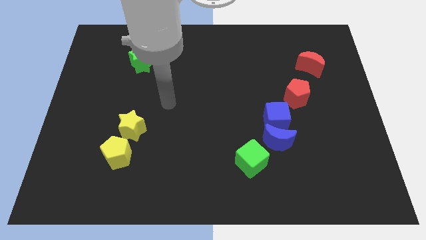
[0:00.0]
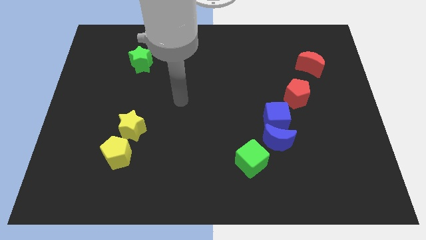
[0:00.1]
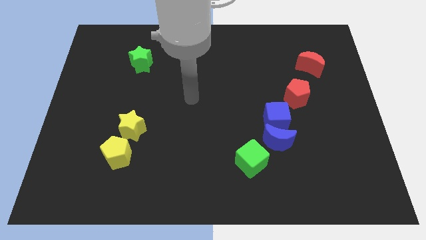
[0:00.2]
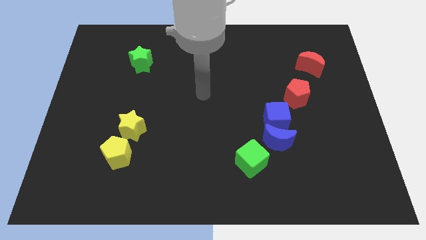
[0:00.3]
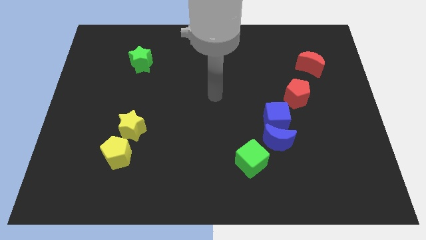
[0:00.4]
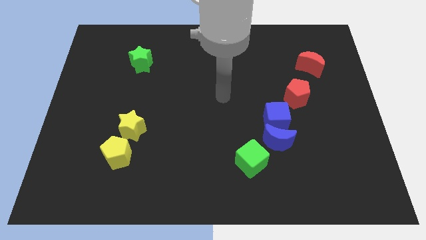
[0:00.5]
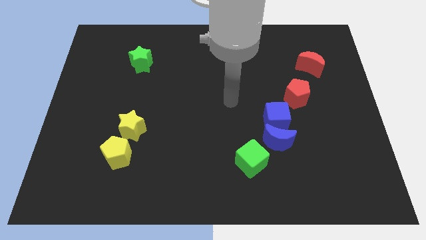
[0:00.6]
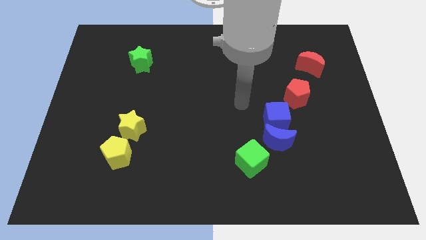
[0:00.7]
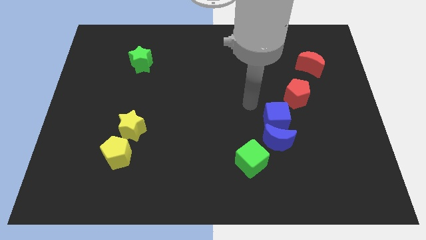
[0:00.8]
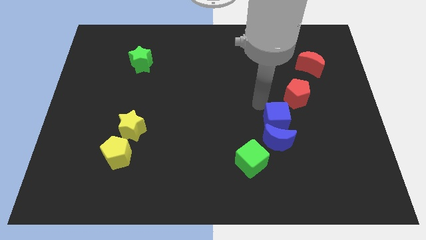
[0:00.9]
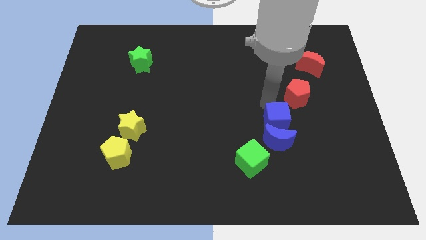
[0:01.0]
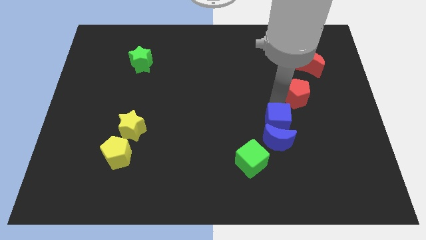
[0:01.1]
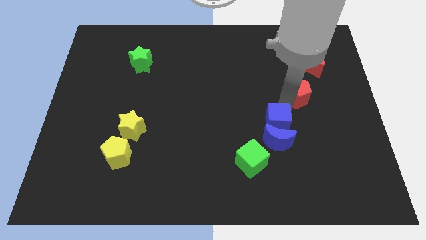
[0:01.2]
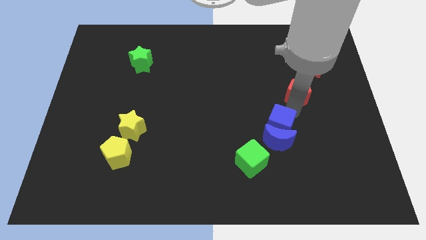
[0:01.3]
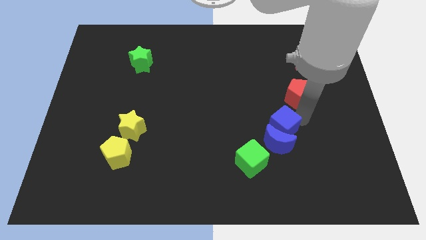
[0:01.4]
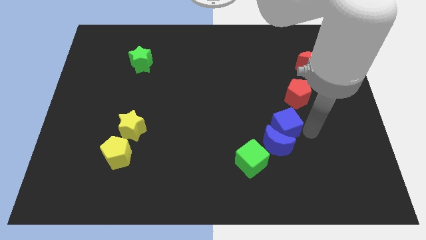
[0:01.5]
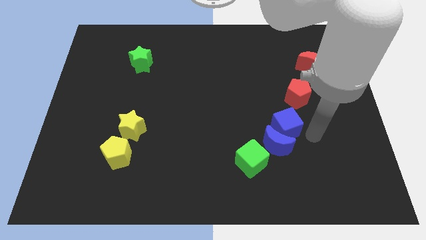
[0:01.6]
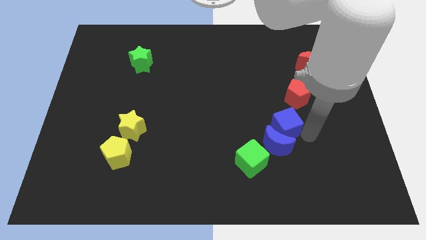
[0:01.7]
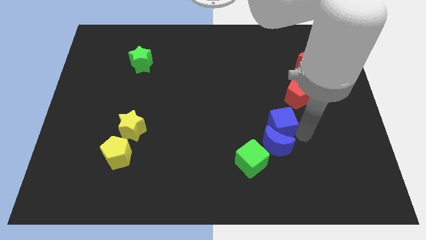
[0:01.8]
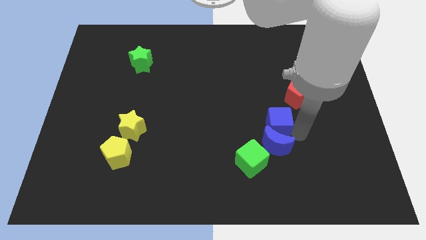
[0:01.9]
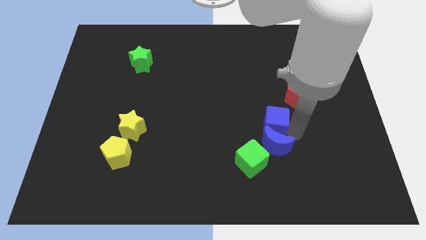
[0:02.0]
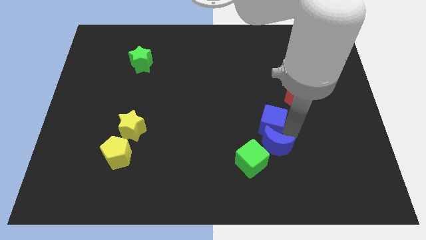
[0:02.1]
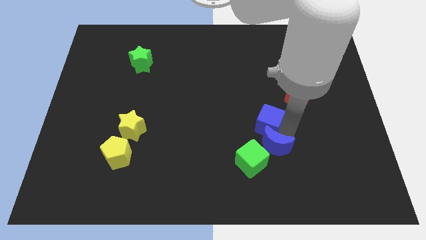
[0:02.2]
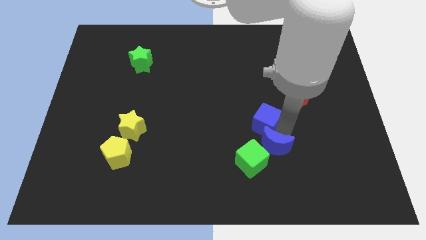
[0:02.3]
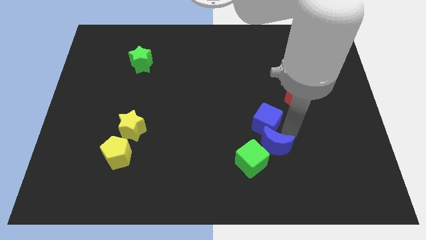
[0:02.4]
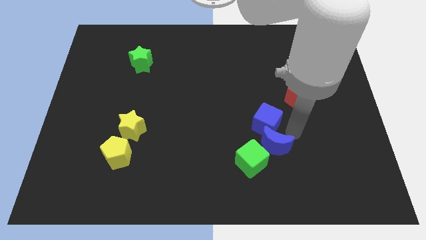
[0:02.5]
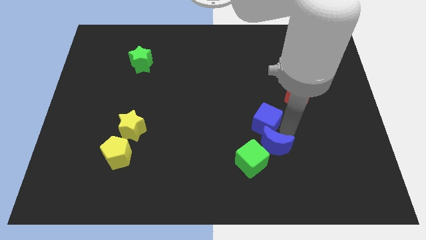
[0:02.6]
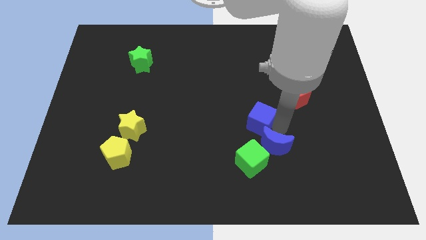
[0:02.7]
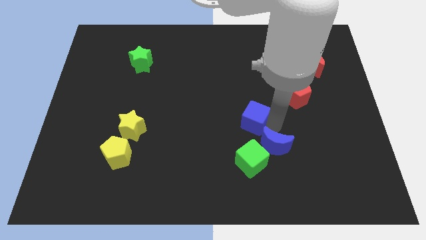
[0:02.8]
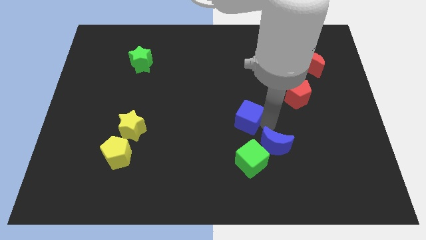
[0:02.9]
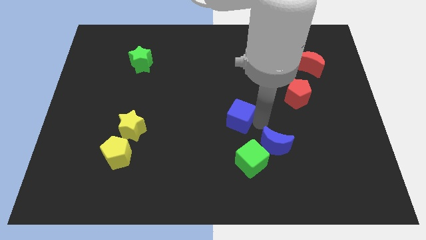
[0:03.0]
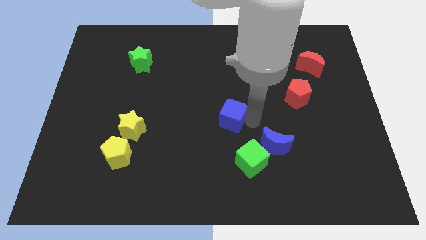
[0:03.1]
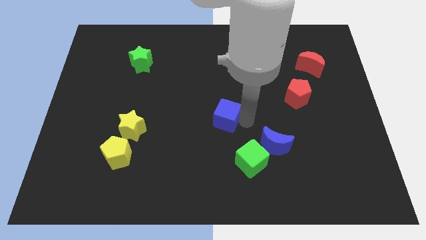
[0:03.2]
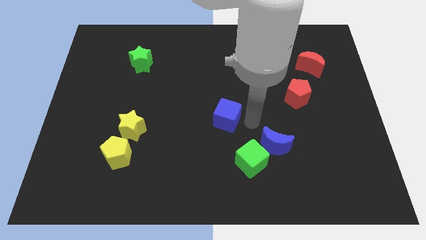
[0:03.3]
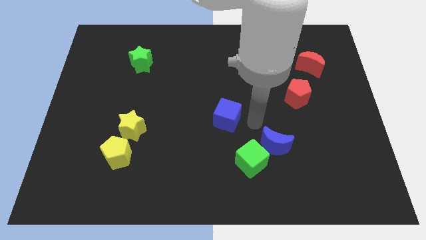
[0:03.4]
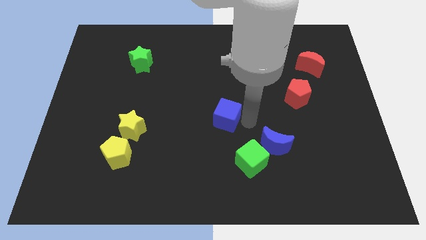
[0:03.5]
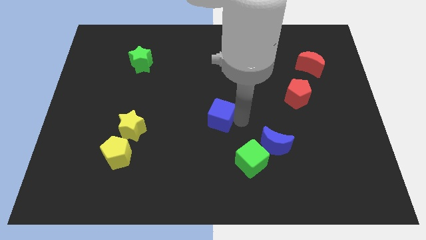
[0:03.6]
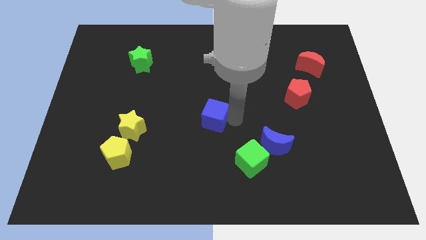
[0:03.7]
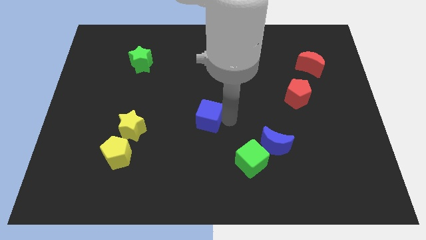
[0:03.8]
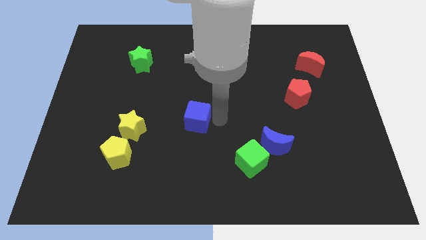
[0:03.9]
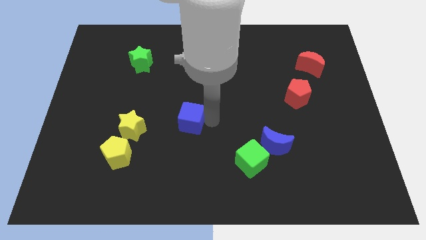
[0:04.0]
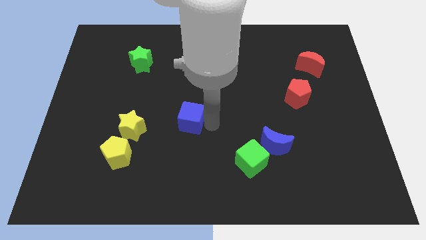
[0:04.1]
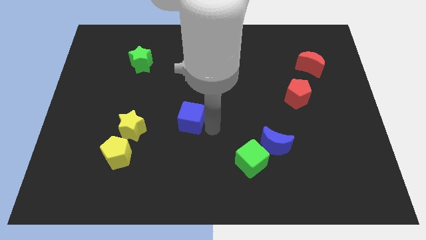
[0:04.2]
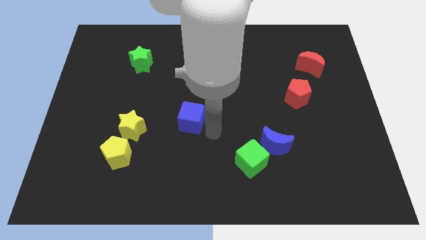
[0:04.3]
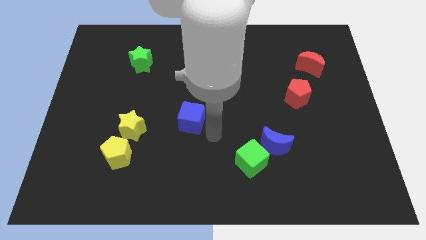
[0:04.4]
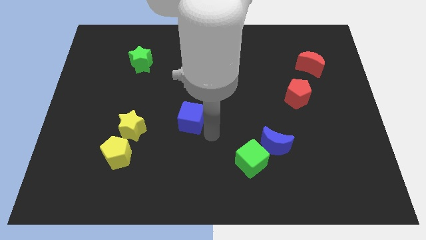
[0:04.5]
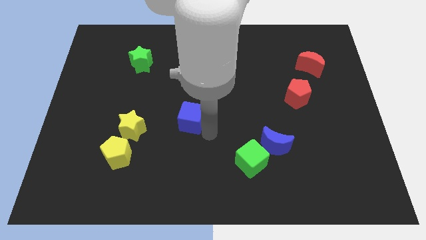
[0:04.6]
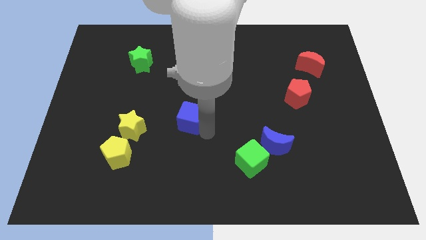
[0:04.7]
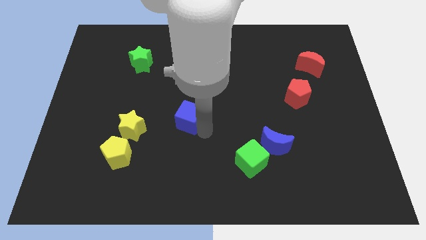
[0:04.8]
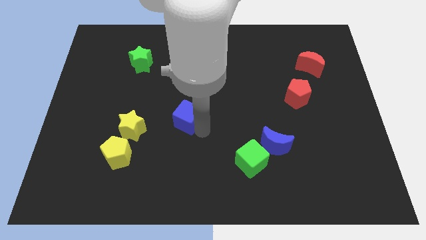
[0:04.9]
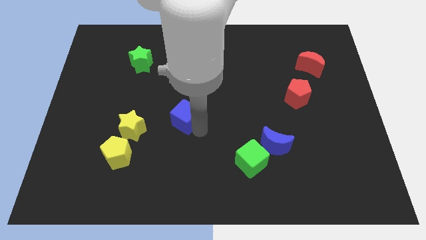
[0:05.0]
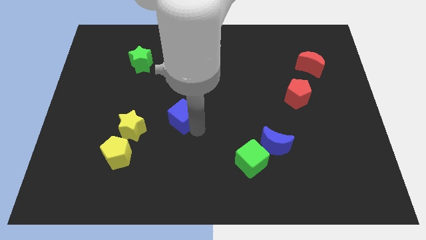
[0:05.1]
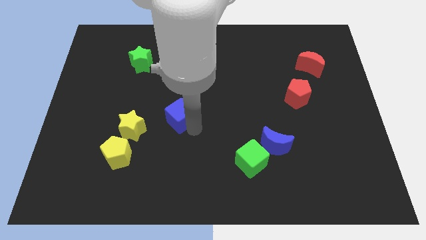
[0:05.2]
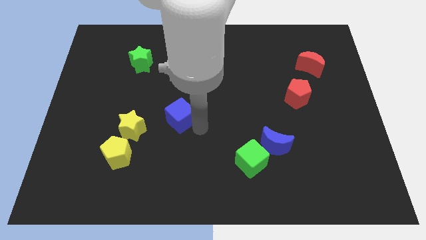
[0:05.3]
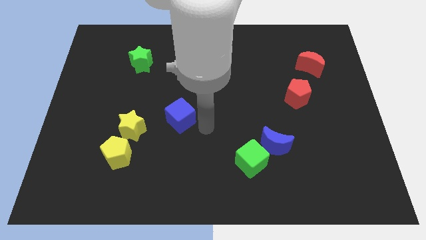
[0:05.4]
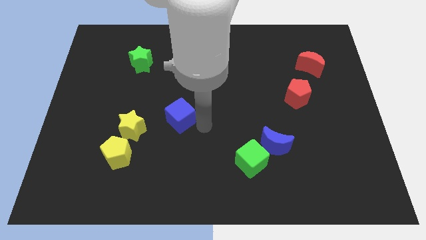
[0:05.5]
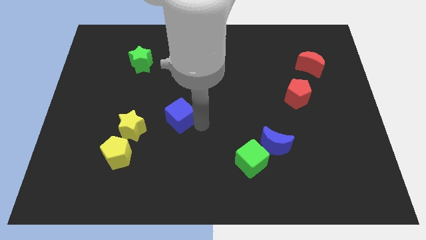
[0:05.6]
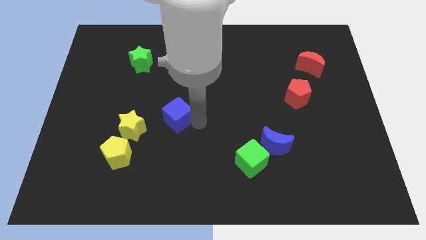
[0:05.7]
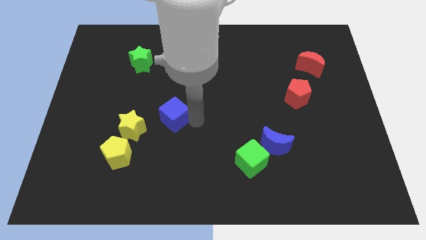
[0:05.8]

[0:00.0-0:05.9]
move the blue cube diagonally up and to the right of the yellow star

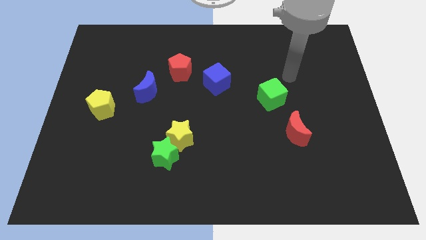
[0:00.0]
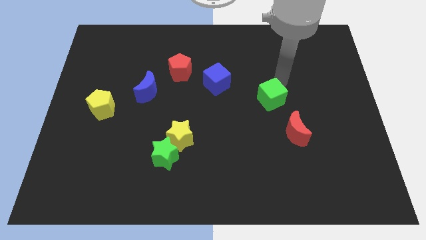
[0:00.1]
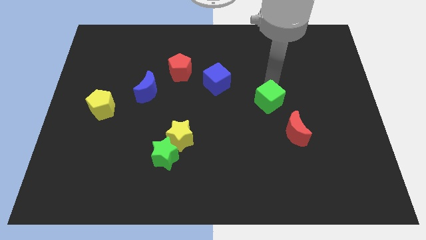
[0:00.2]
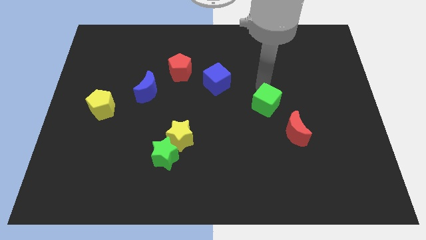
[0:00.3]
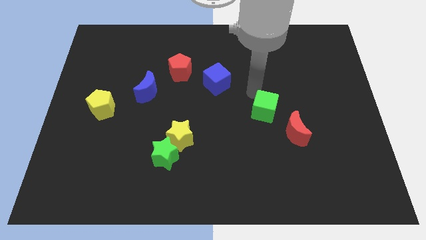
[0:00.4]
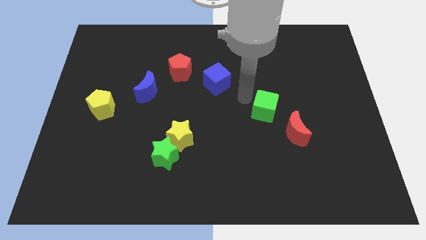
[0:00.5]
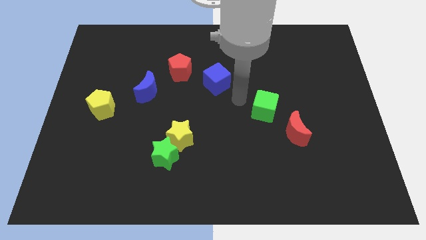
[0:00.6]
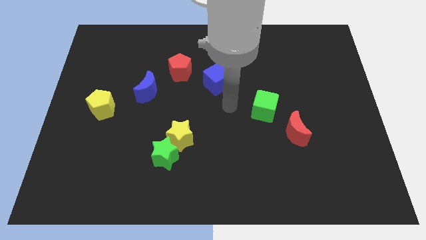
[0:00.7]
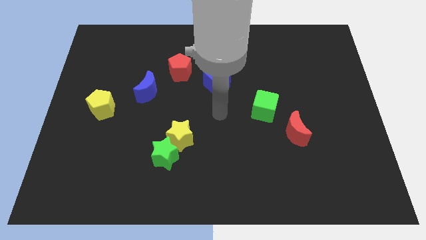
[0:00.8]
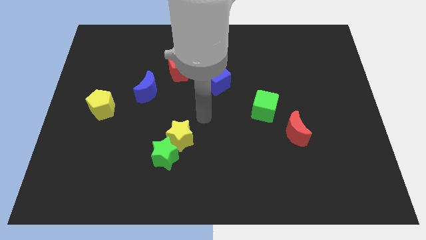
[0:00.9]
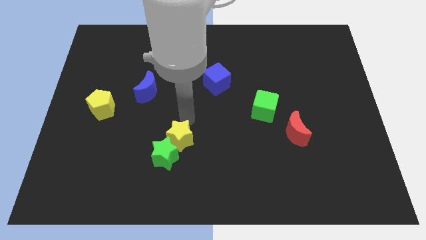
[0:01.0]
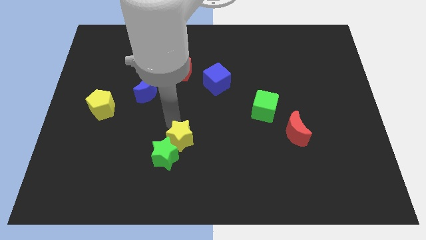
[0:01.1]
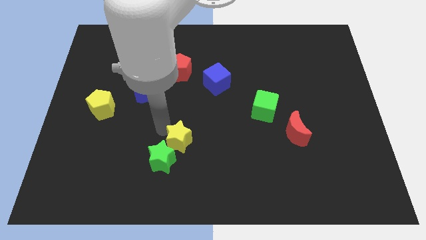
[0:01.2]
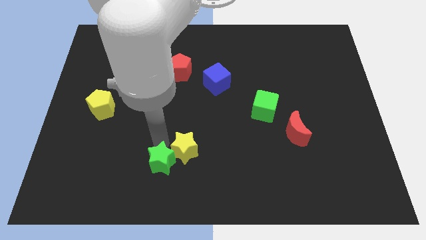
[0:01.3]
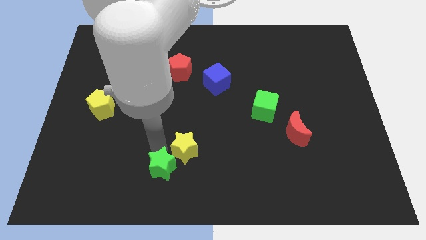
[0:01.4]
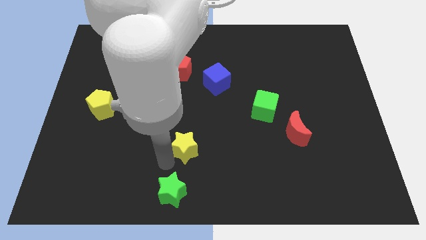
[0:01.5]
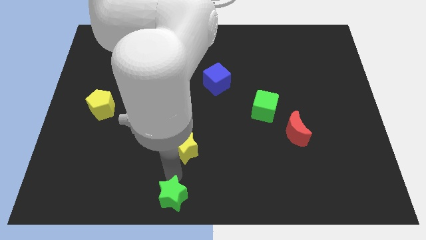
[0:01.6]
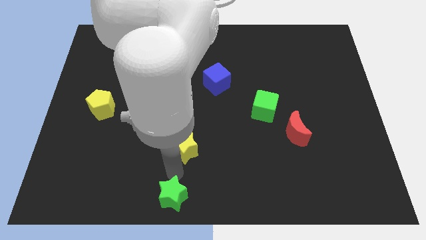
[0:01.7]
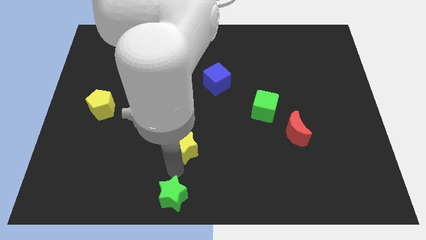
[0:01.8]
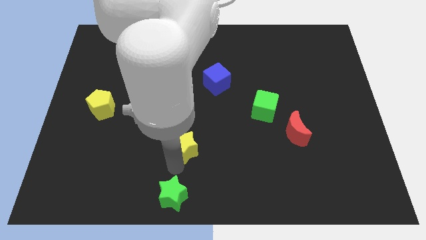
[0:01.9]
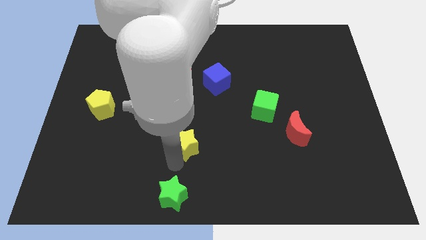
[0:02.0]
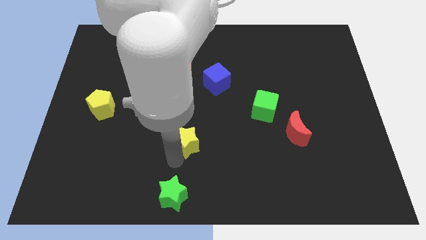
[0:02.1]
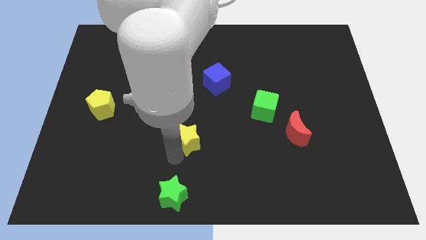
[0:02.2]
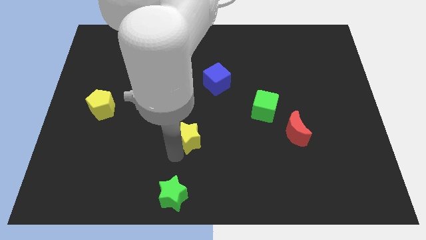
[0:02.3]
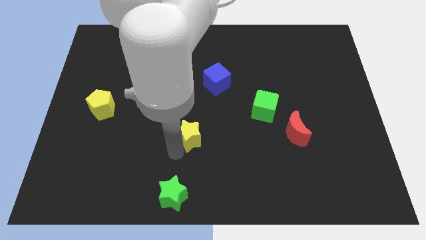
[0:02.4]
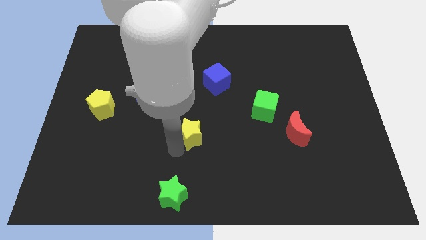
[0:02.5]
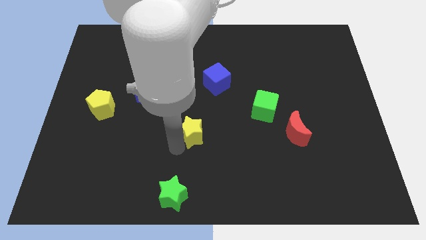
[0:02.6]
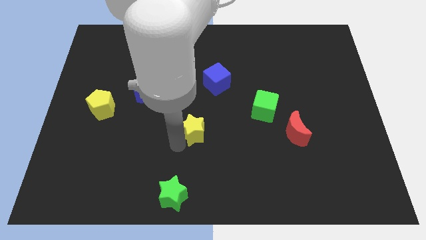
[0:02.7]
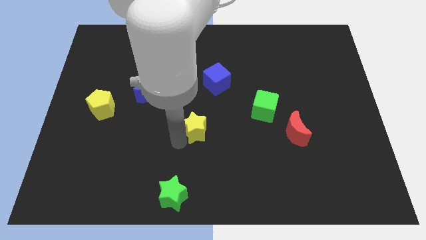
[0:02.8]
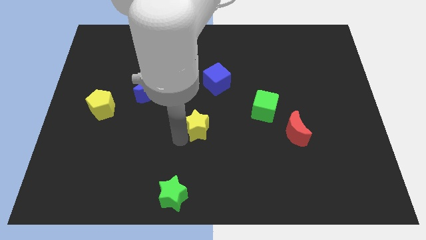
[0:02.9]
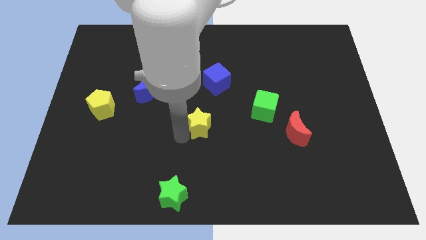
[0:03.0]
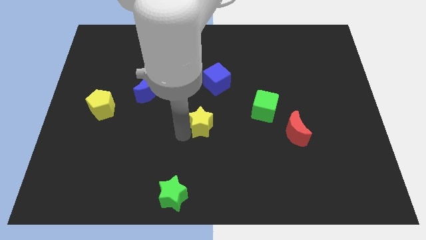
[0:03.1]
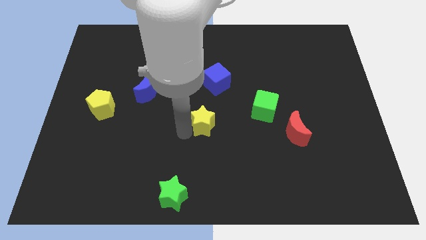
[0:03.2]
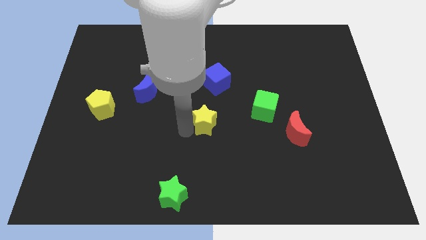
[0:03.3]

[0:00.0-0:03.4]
put the yellow star to the left side of the green cube
